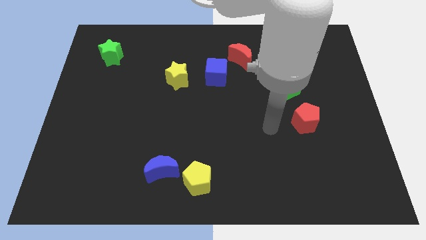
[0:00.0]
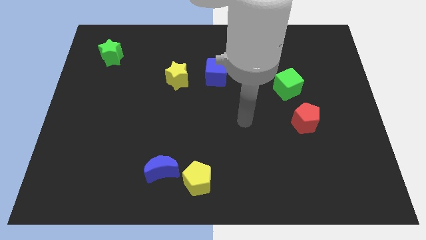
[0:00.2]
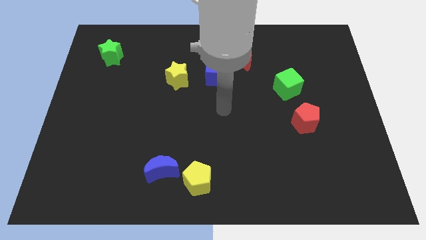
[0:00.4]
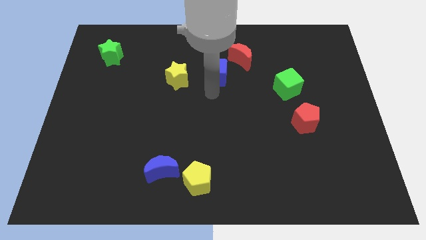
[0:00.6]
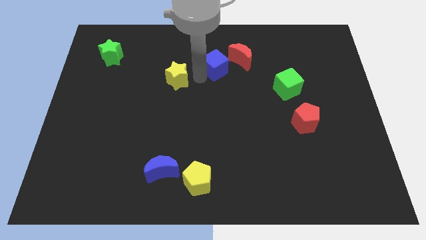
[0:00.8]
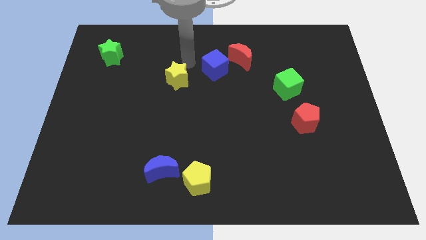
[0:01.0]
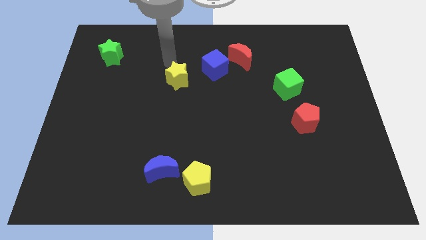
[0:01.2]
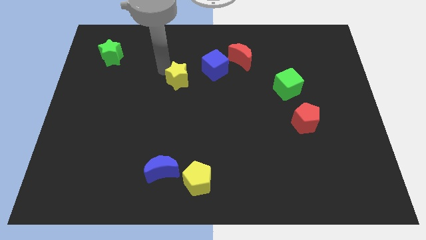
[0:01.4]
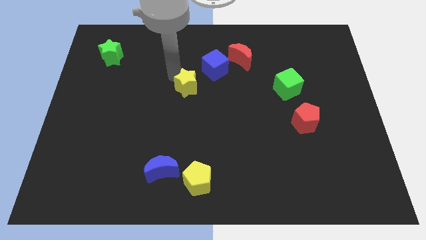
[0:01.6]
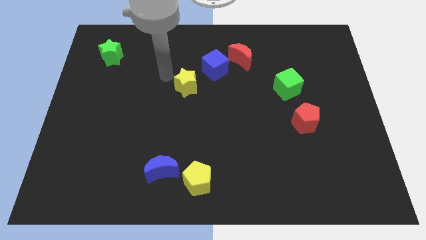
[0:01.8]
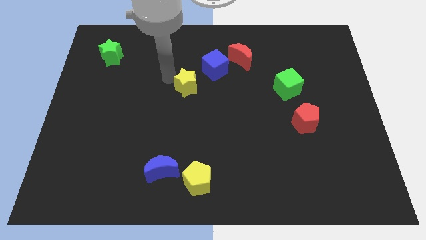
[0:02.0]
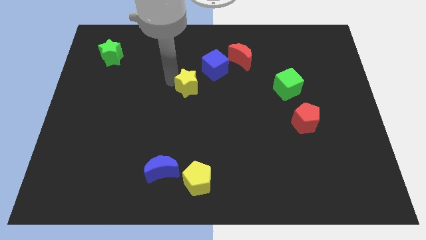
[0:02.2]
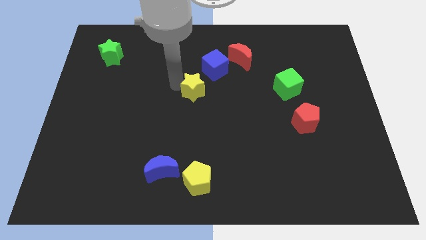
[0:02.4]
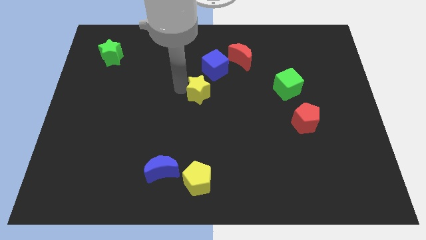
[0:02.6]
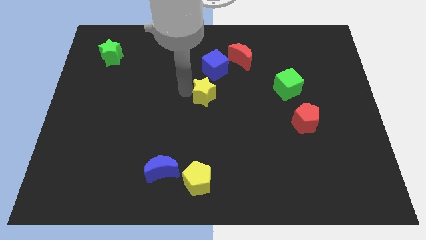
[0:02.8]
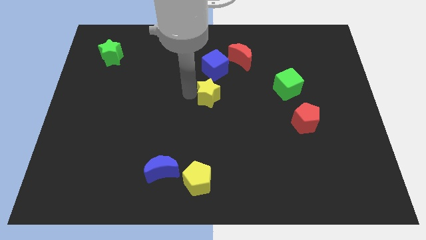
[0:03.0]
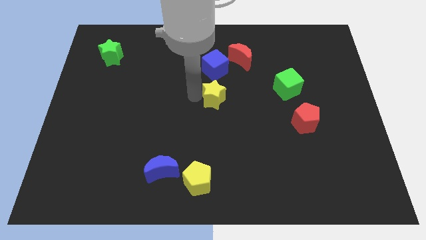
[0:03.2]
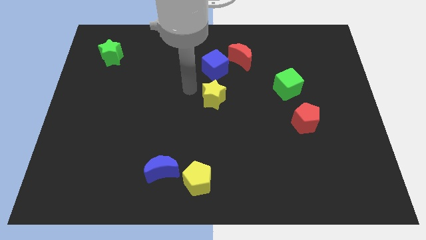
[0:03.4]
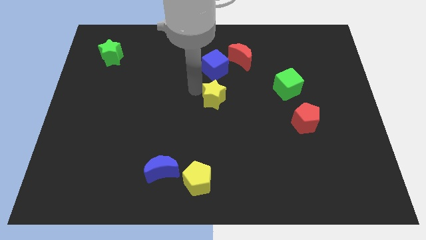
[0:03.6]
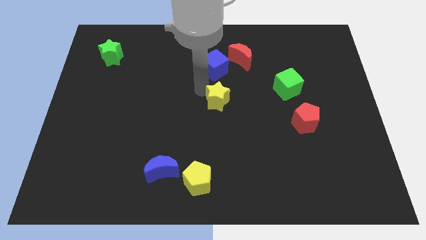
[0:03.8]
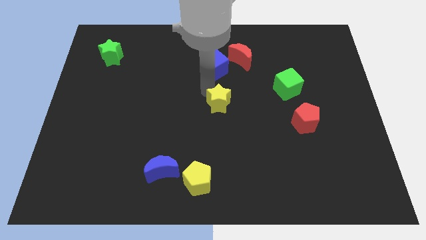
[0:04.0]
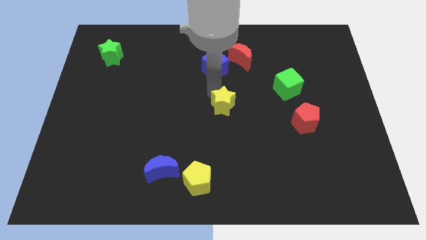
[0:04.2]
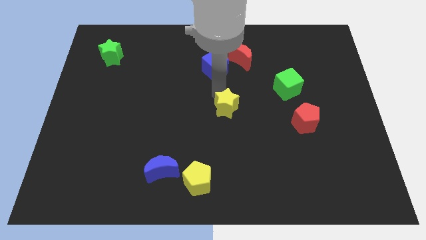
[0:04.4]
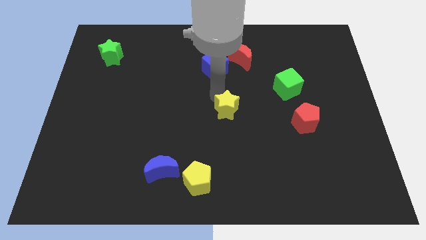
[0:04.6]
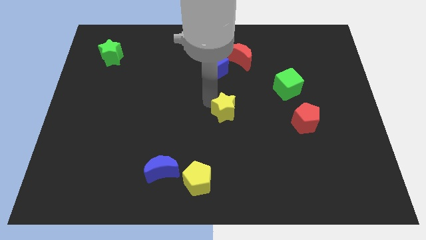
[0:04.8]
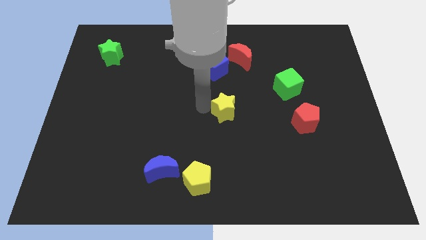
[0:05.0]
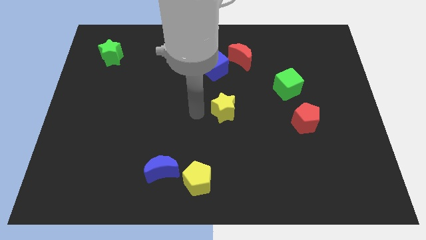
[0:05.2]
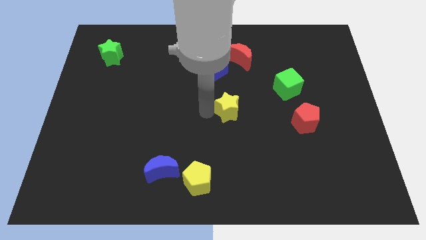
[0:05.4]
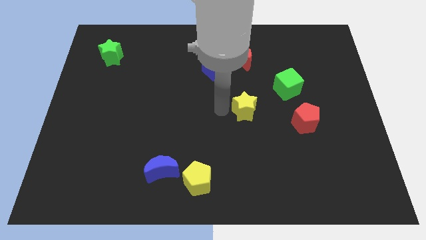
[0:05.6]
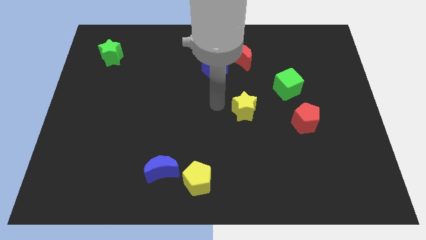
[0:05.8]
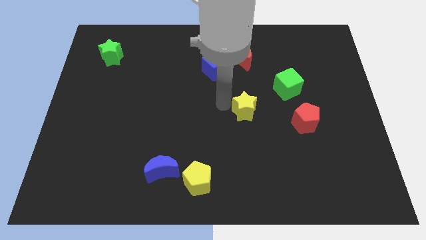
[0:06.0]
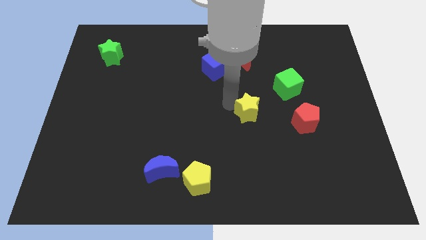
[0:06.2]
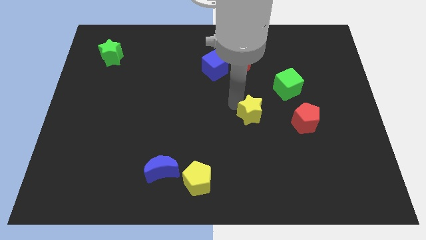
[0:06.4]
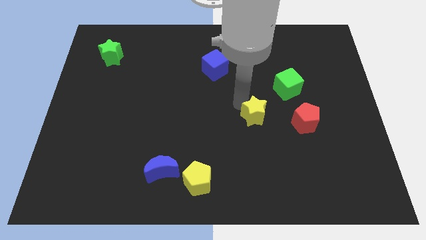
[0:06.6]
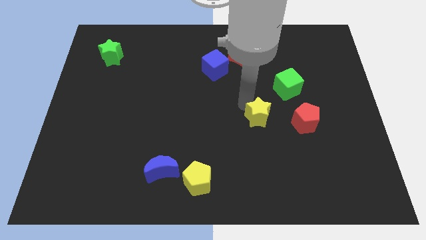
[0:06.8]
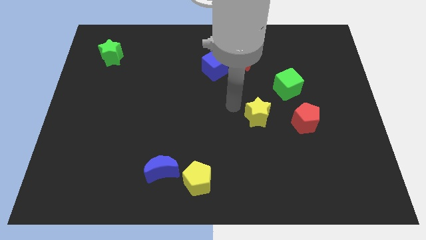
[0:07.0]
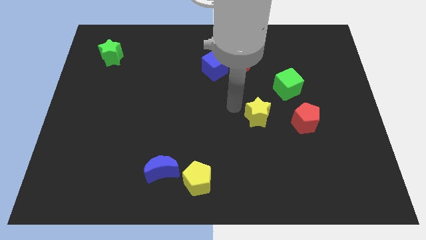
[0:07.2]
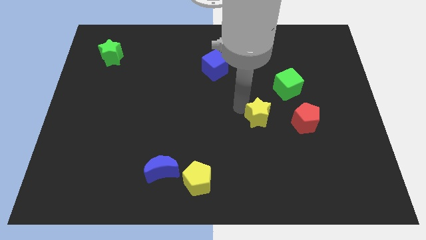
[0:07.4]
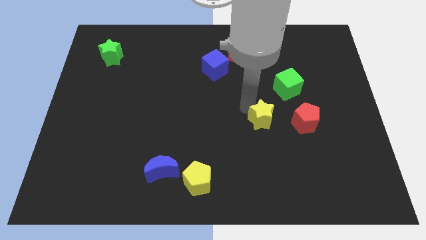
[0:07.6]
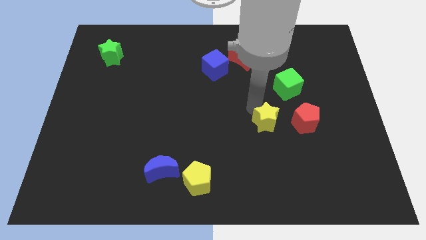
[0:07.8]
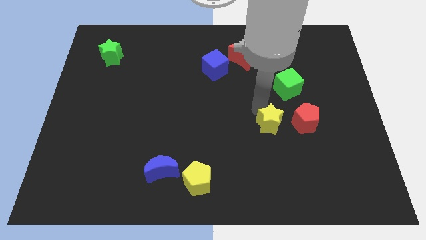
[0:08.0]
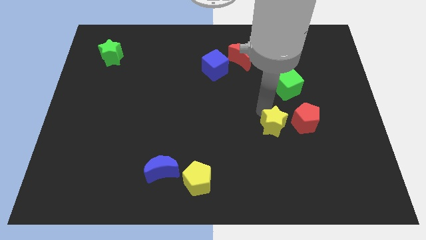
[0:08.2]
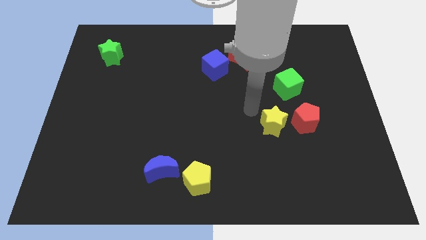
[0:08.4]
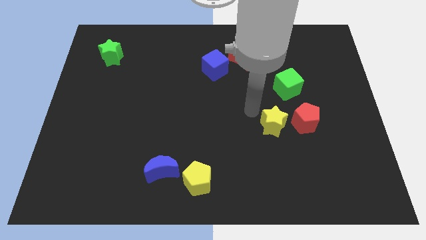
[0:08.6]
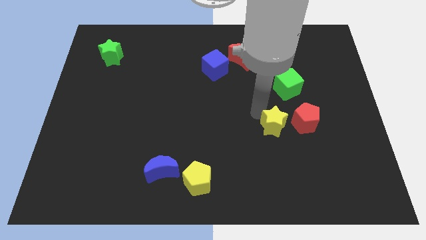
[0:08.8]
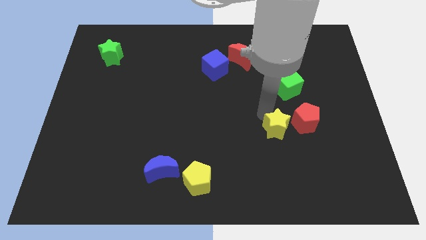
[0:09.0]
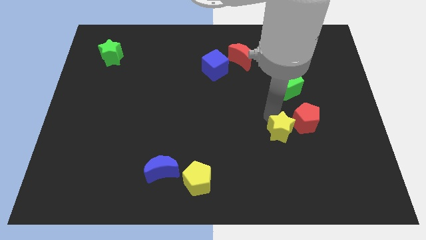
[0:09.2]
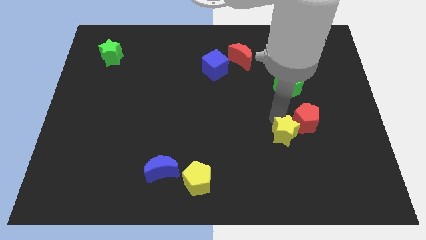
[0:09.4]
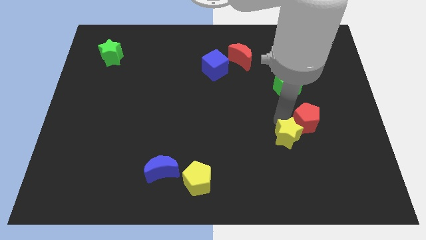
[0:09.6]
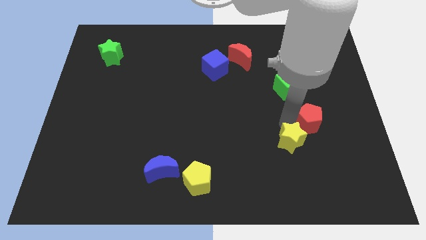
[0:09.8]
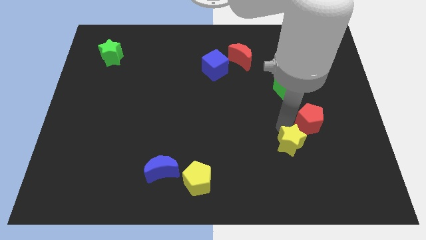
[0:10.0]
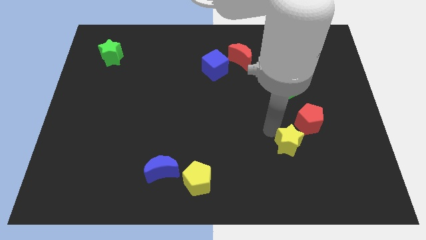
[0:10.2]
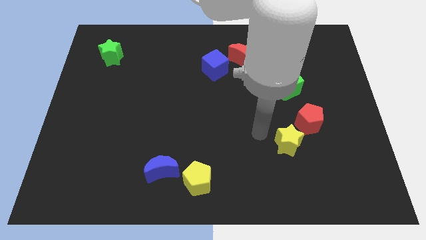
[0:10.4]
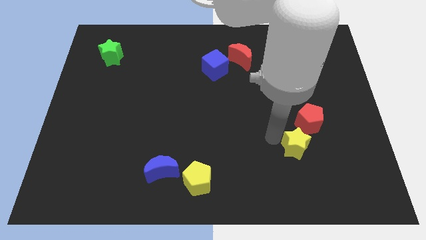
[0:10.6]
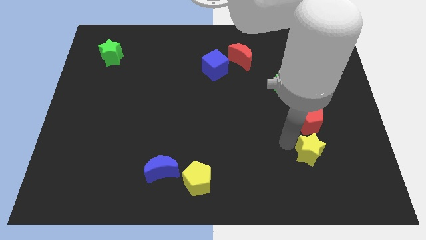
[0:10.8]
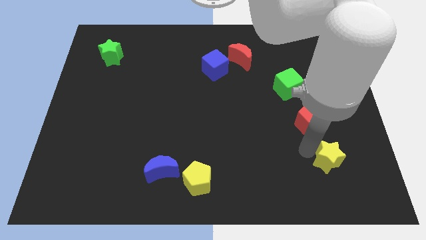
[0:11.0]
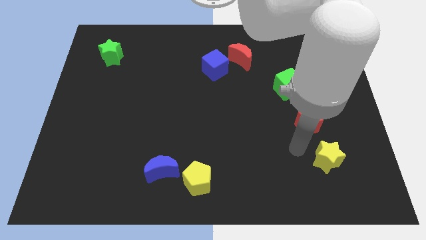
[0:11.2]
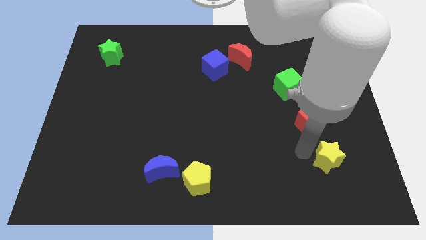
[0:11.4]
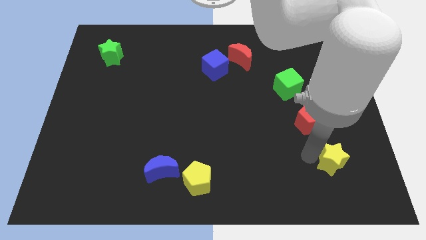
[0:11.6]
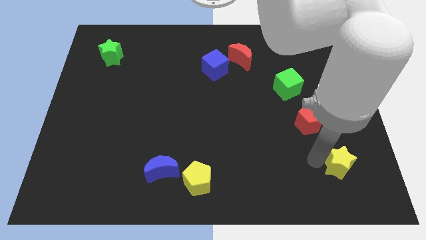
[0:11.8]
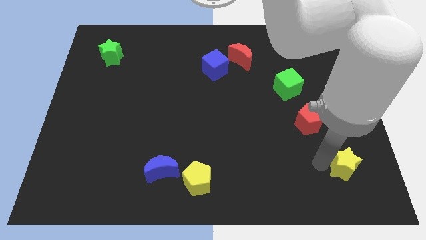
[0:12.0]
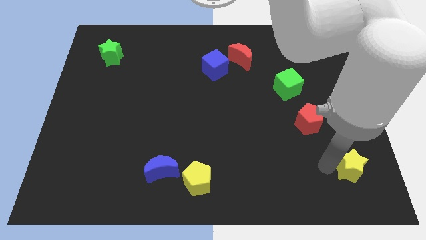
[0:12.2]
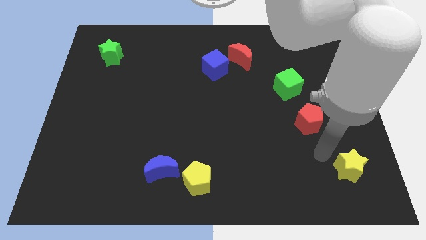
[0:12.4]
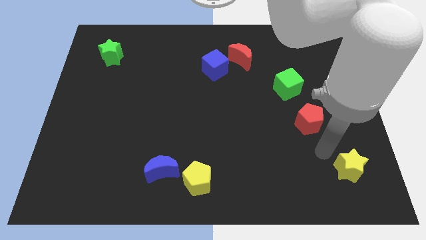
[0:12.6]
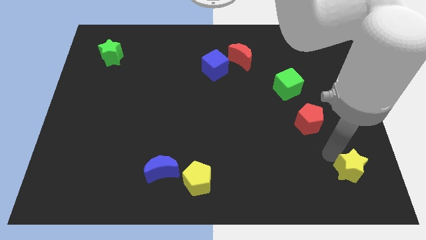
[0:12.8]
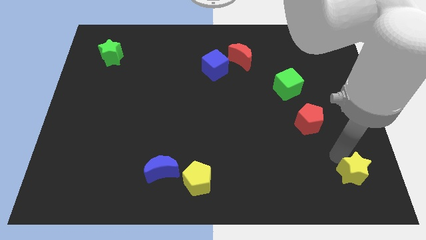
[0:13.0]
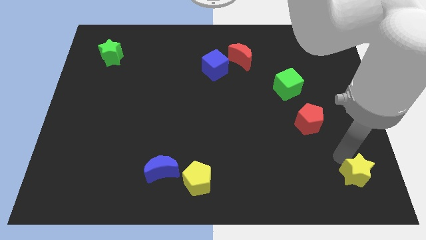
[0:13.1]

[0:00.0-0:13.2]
move the yellow star to the bottom right

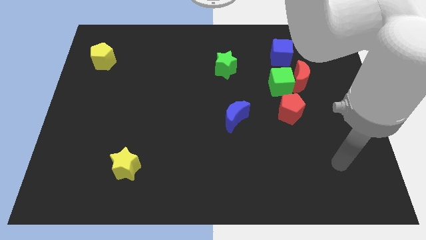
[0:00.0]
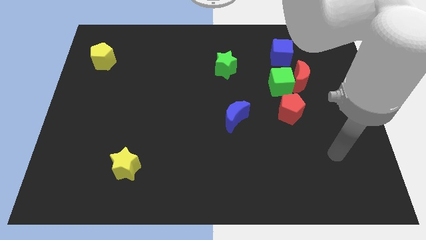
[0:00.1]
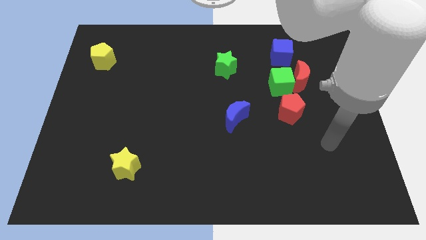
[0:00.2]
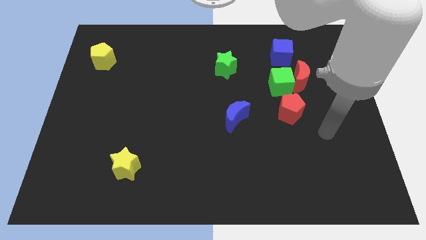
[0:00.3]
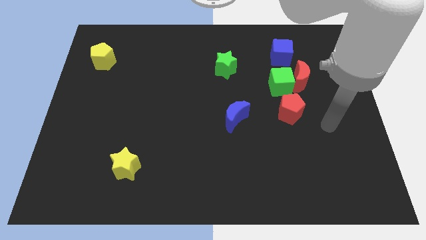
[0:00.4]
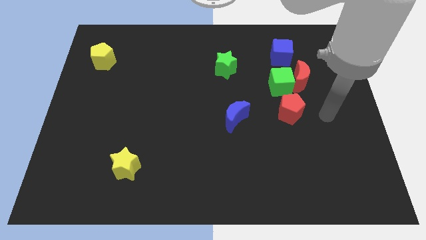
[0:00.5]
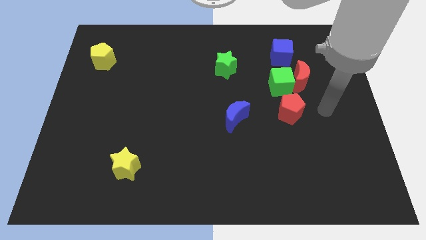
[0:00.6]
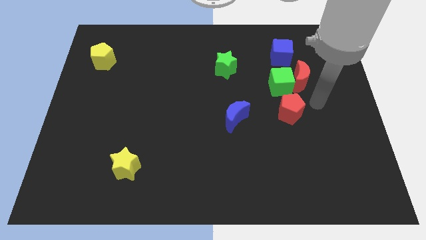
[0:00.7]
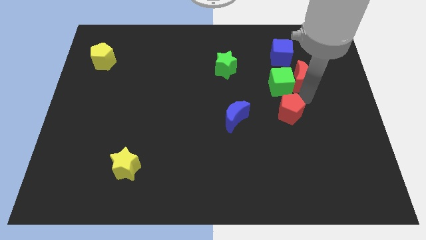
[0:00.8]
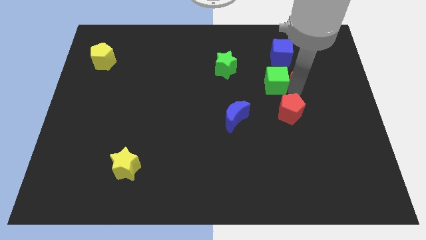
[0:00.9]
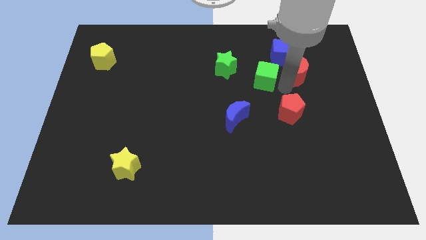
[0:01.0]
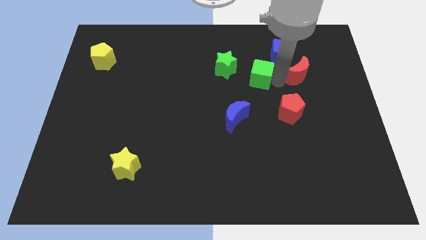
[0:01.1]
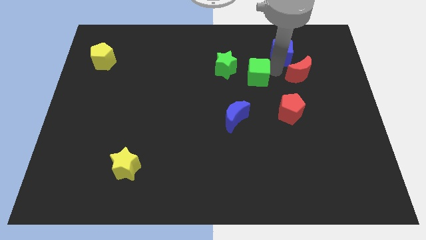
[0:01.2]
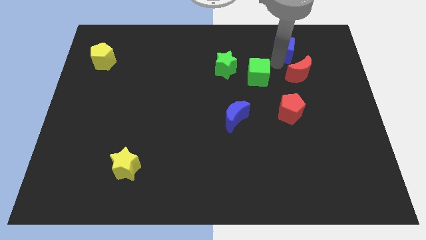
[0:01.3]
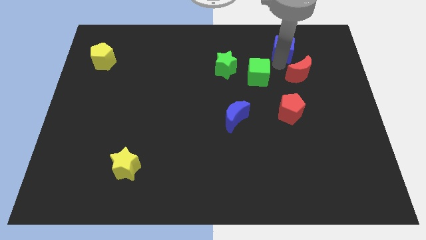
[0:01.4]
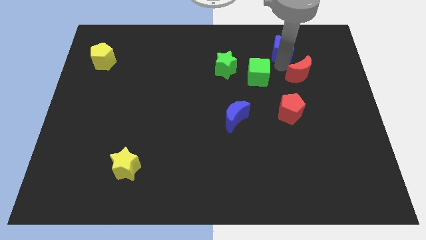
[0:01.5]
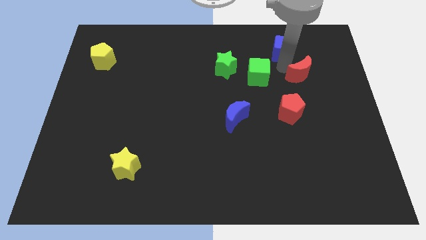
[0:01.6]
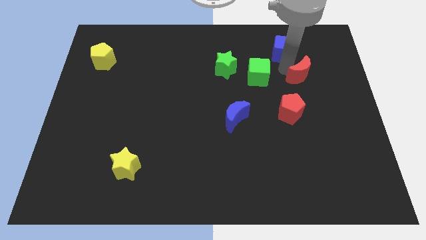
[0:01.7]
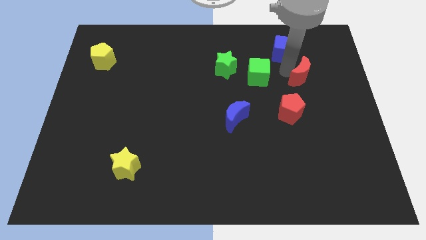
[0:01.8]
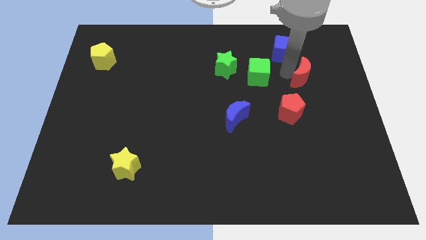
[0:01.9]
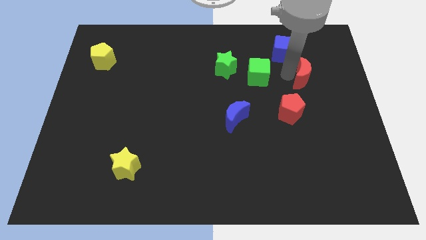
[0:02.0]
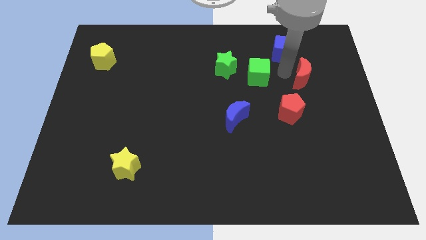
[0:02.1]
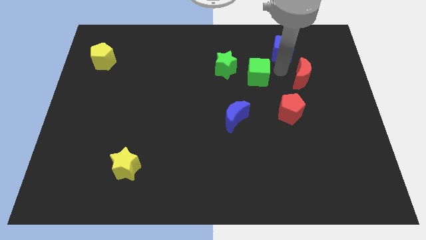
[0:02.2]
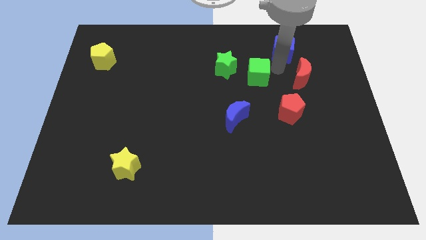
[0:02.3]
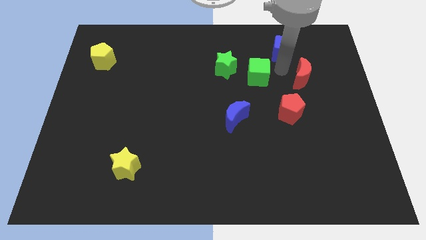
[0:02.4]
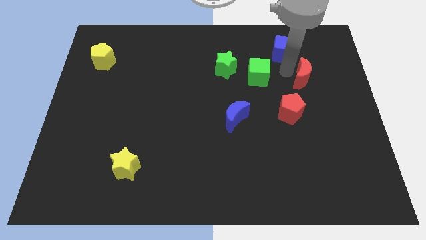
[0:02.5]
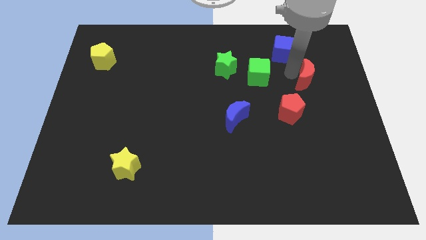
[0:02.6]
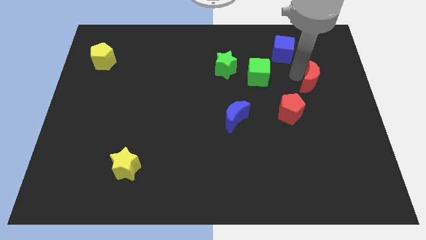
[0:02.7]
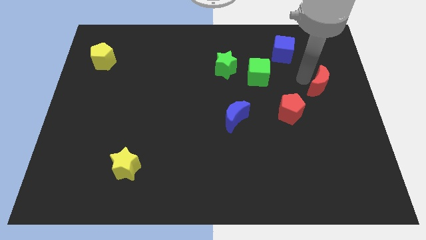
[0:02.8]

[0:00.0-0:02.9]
push the red moon to the right side
